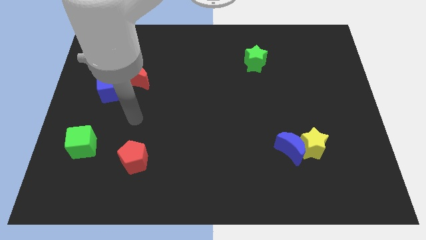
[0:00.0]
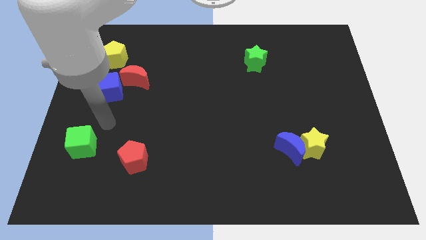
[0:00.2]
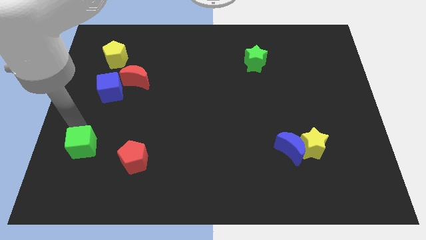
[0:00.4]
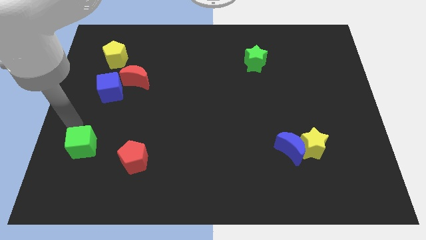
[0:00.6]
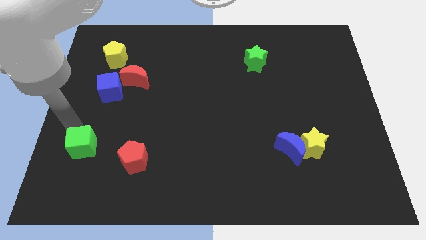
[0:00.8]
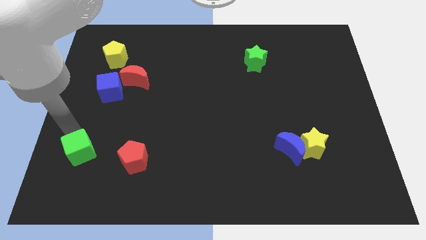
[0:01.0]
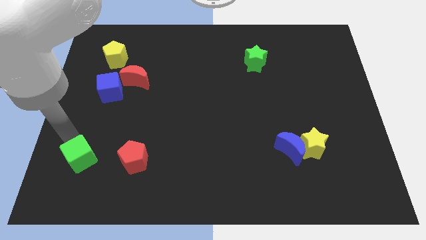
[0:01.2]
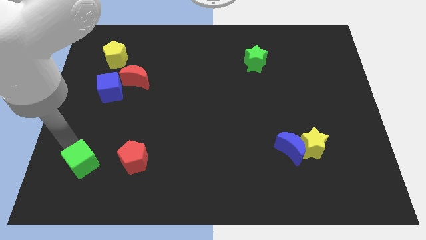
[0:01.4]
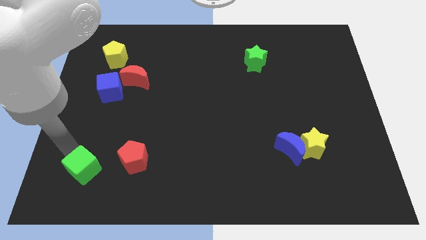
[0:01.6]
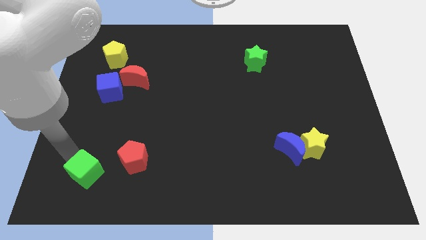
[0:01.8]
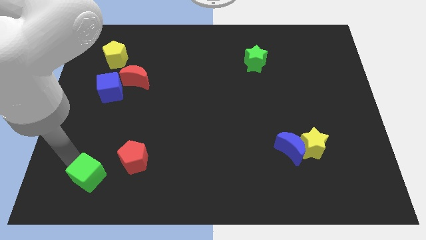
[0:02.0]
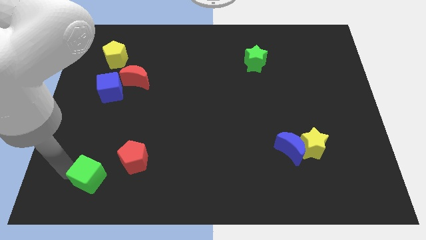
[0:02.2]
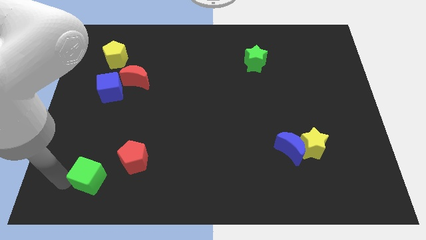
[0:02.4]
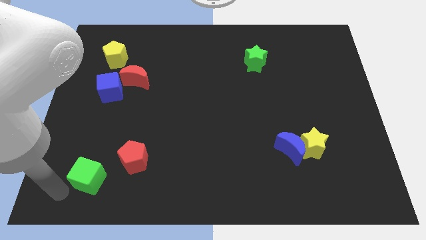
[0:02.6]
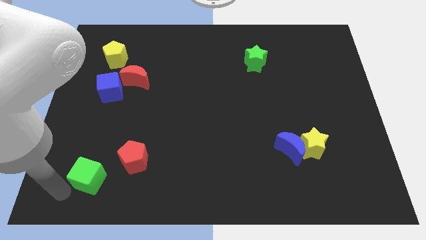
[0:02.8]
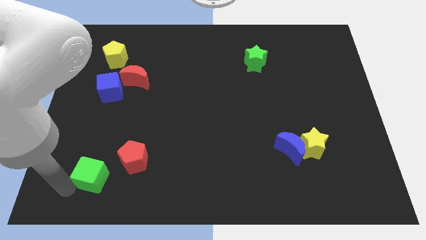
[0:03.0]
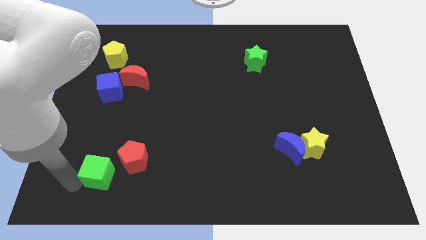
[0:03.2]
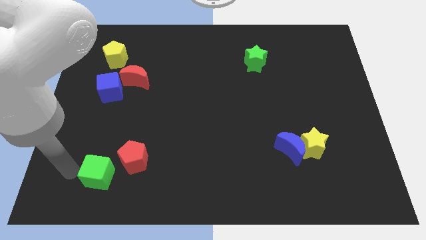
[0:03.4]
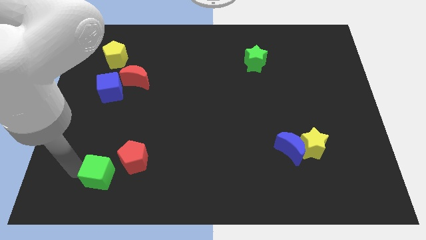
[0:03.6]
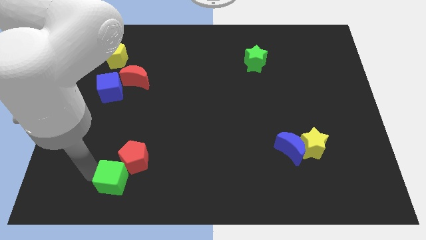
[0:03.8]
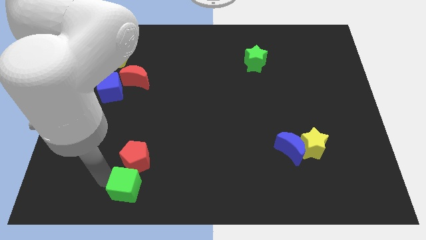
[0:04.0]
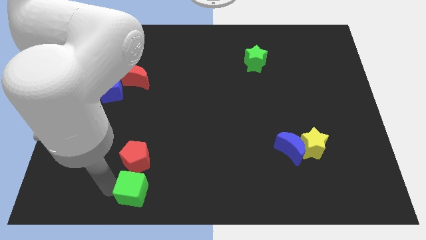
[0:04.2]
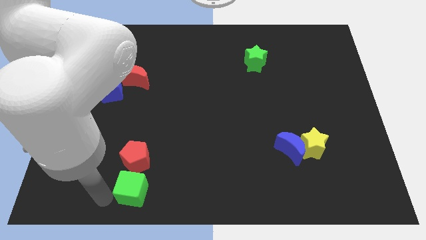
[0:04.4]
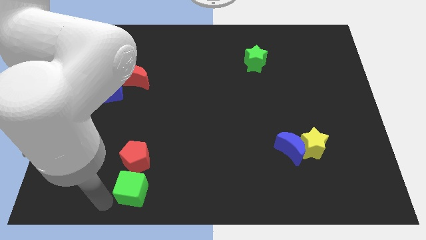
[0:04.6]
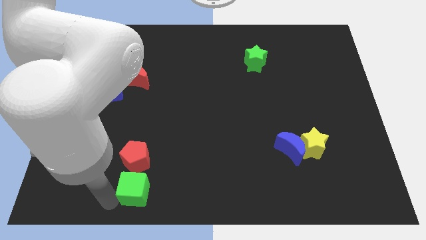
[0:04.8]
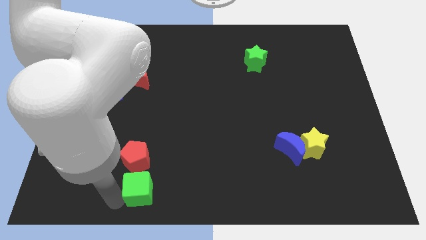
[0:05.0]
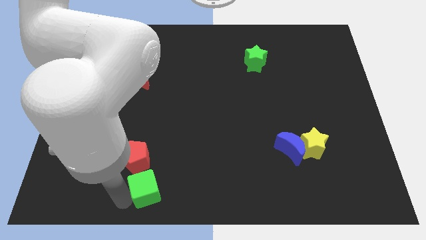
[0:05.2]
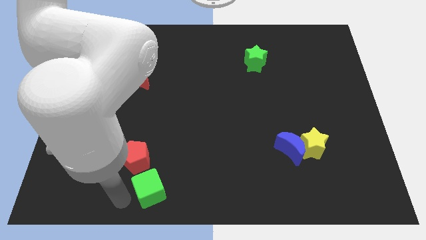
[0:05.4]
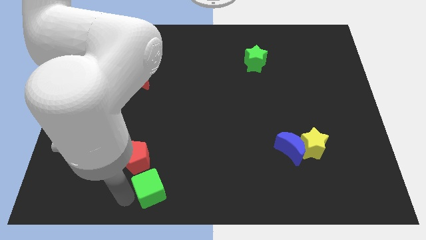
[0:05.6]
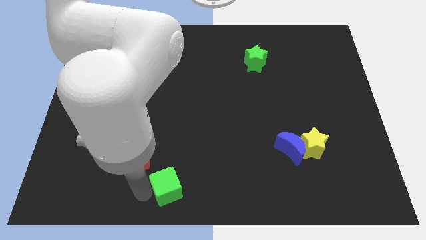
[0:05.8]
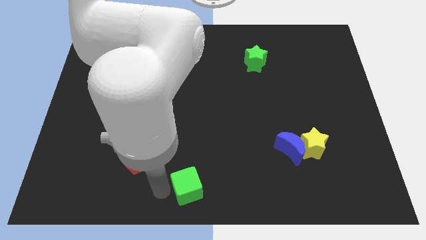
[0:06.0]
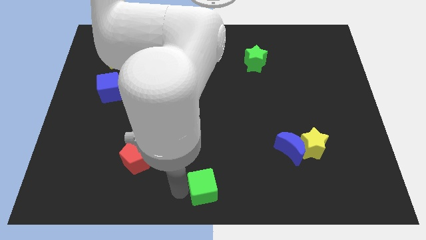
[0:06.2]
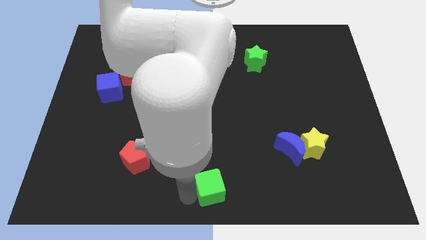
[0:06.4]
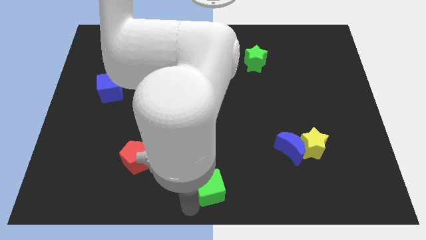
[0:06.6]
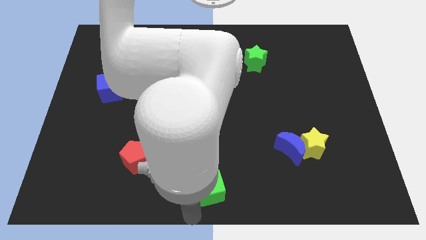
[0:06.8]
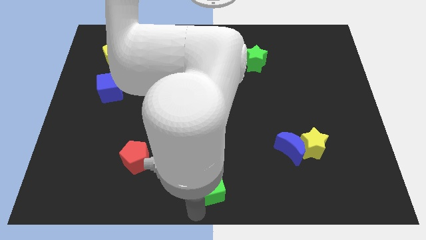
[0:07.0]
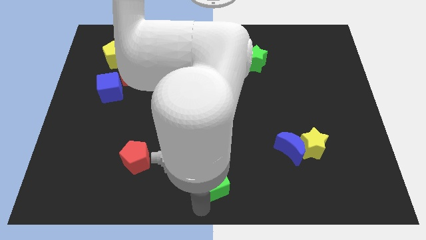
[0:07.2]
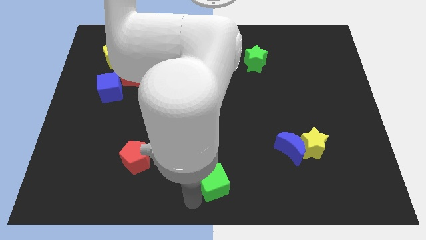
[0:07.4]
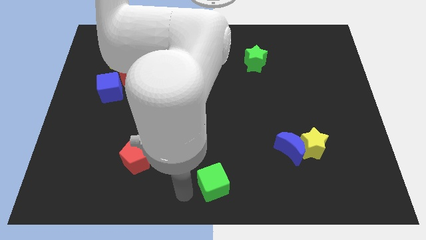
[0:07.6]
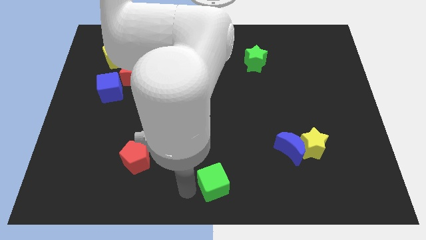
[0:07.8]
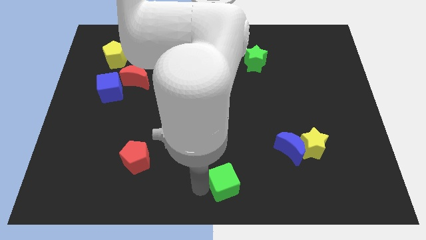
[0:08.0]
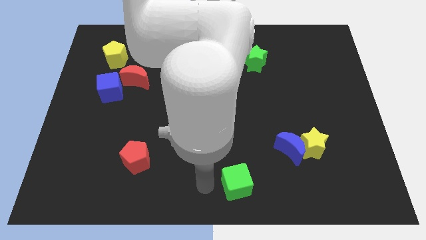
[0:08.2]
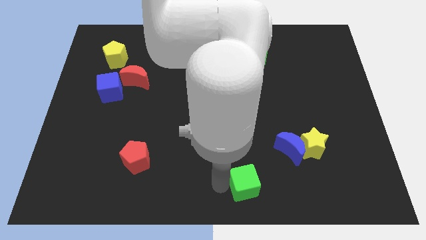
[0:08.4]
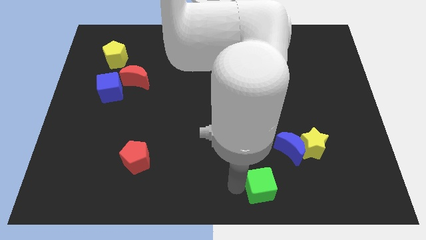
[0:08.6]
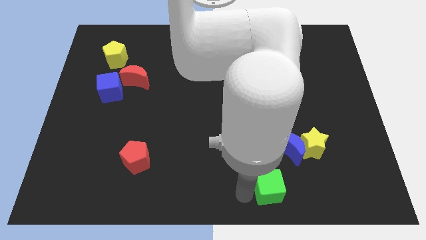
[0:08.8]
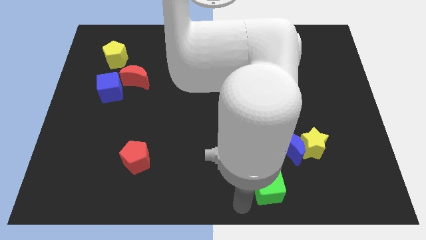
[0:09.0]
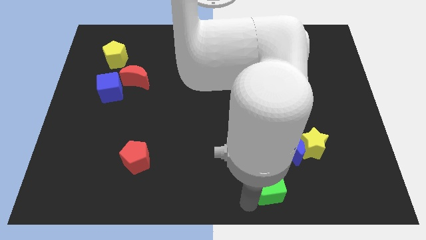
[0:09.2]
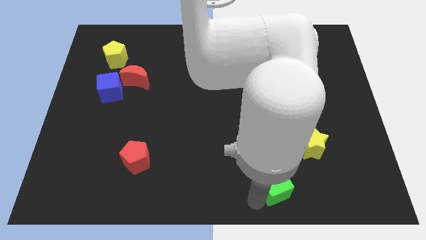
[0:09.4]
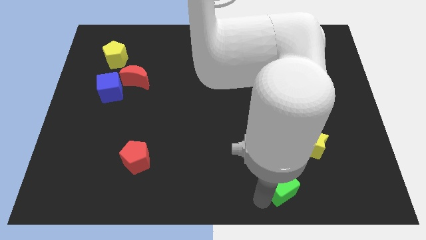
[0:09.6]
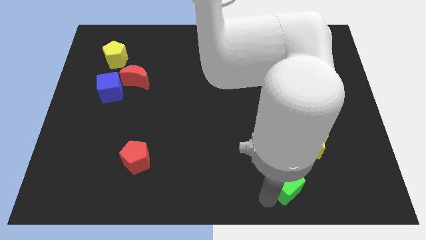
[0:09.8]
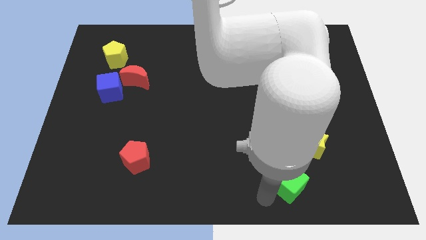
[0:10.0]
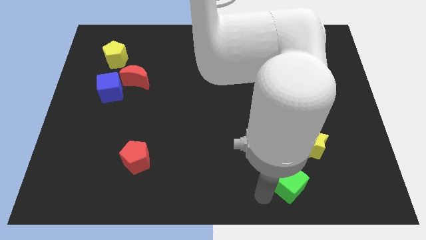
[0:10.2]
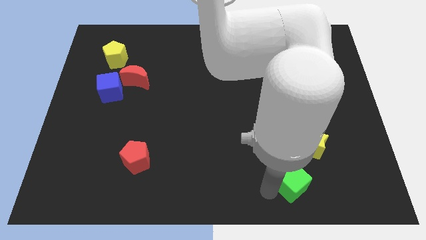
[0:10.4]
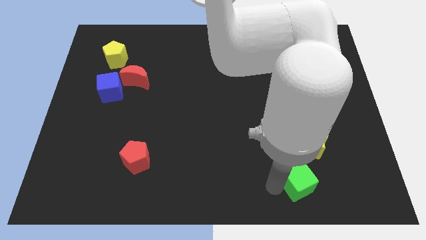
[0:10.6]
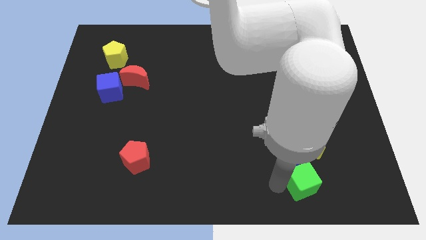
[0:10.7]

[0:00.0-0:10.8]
push the green cube to the bottom right of the blue moon

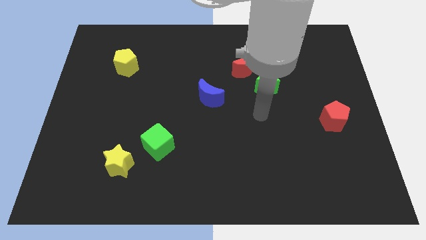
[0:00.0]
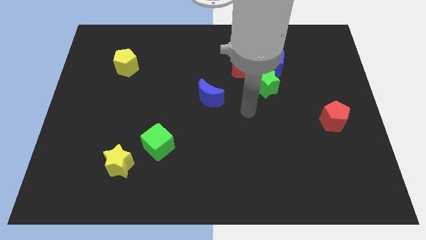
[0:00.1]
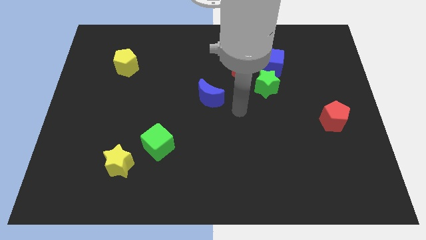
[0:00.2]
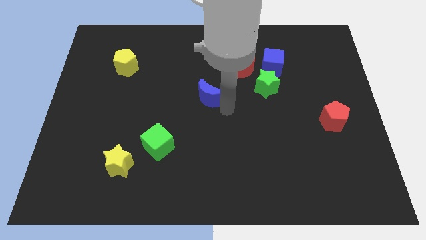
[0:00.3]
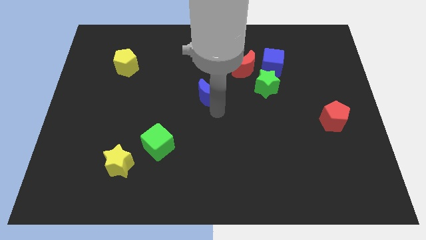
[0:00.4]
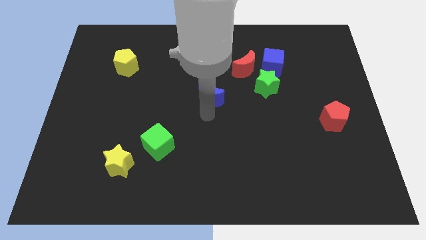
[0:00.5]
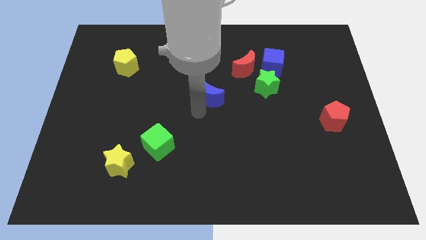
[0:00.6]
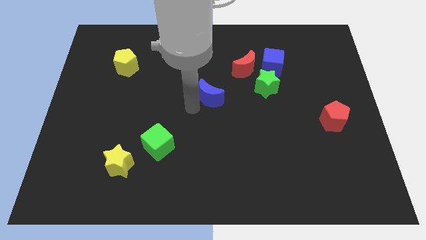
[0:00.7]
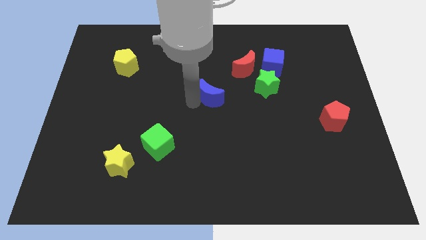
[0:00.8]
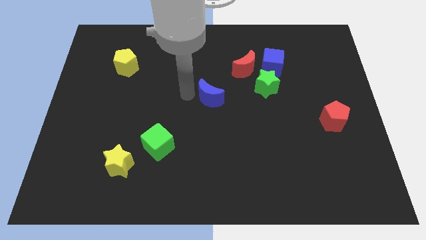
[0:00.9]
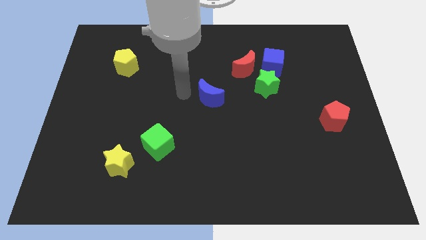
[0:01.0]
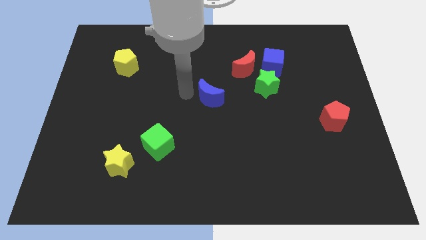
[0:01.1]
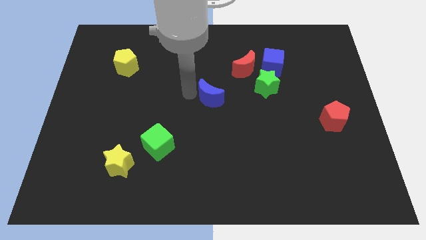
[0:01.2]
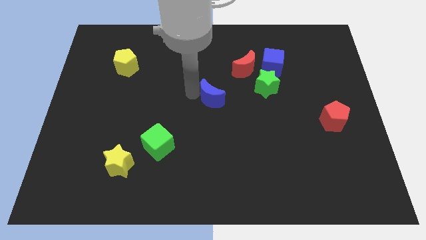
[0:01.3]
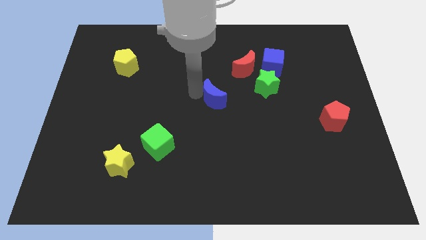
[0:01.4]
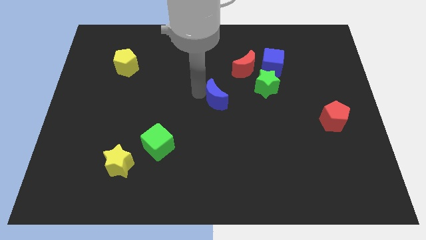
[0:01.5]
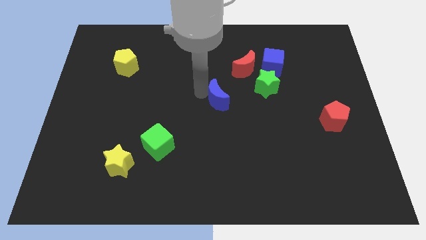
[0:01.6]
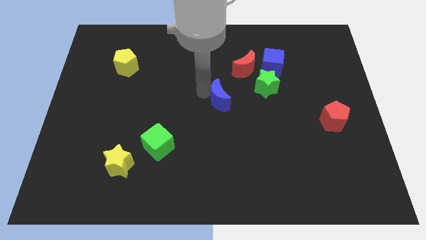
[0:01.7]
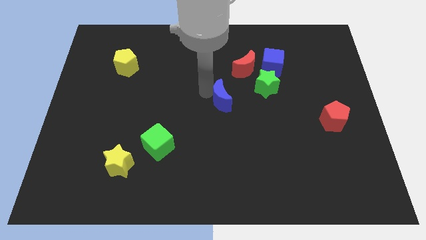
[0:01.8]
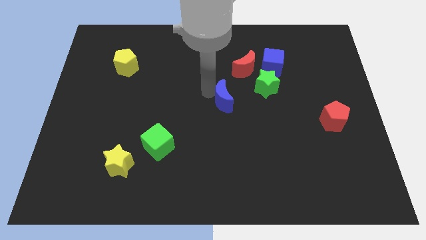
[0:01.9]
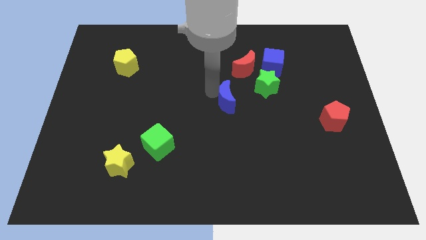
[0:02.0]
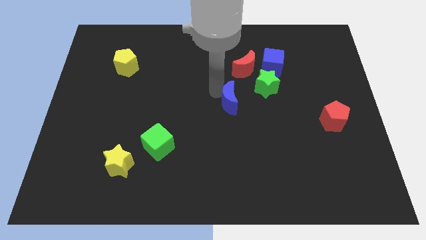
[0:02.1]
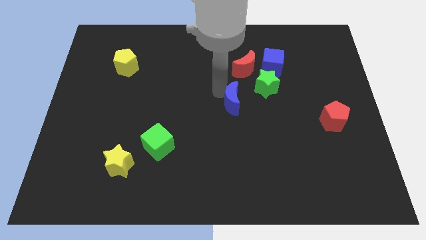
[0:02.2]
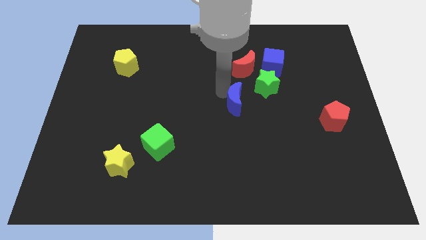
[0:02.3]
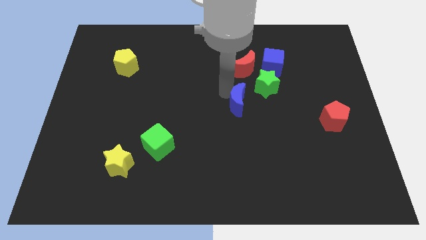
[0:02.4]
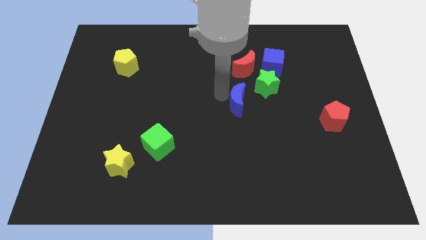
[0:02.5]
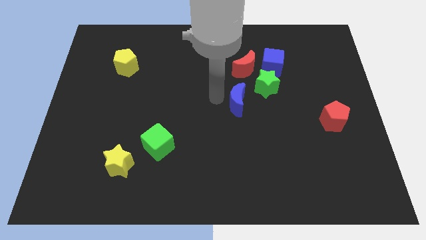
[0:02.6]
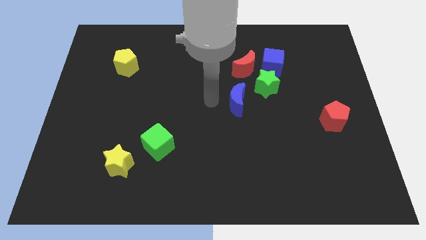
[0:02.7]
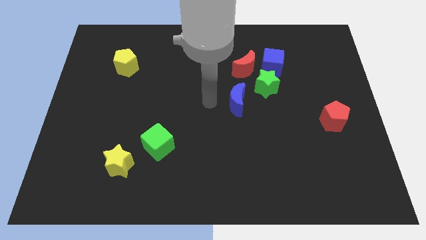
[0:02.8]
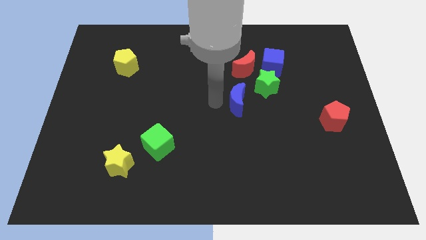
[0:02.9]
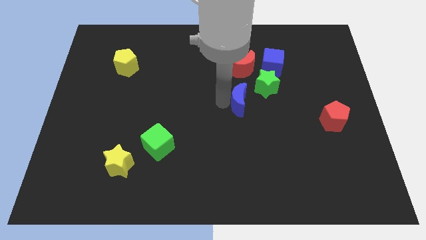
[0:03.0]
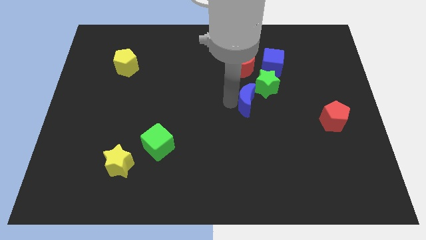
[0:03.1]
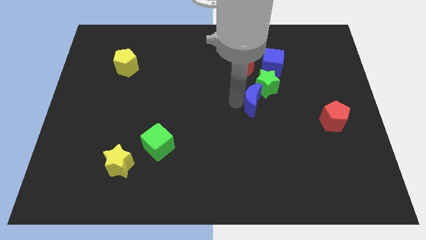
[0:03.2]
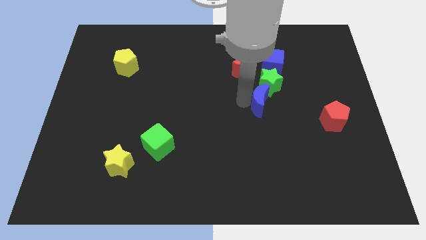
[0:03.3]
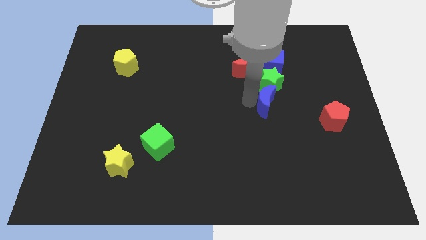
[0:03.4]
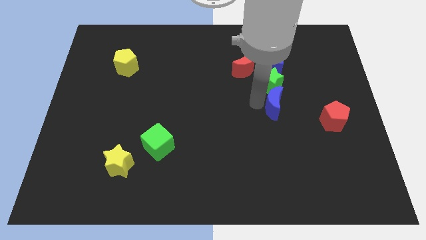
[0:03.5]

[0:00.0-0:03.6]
slide the blue moon to the bottom right of the green star
